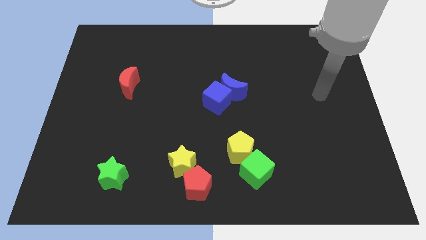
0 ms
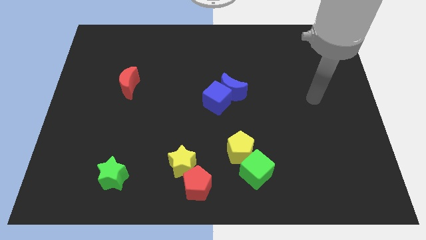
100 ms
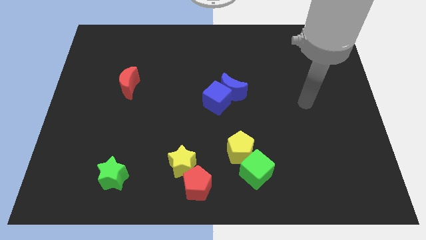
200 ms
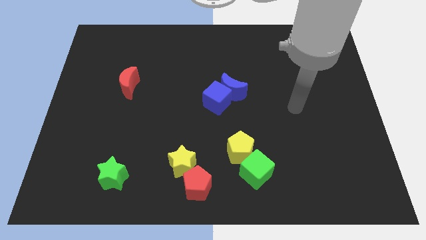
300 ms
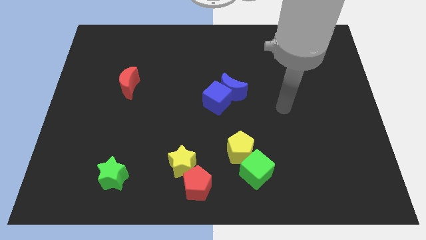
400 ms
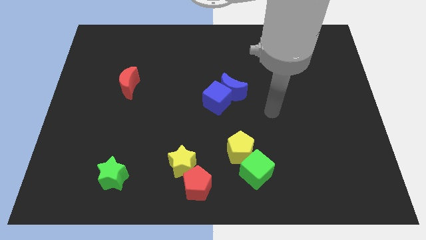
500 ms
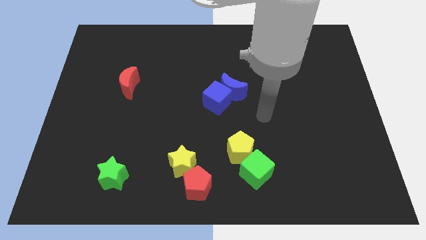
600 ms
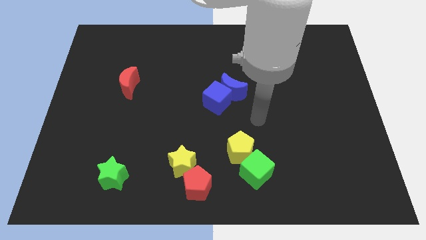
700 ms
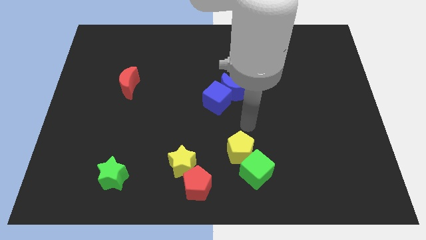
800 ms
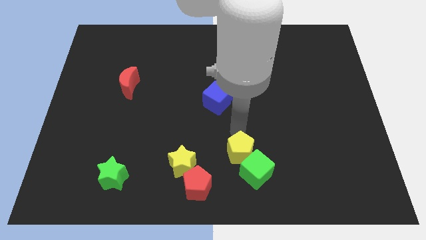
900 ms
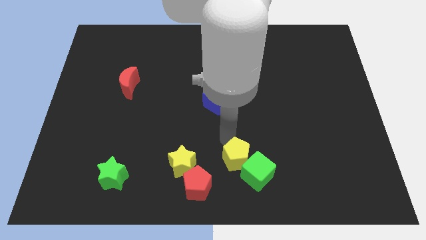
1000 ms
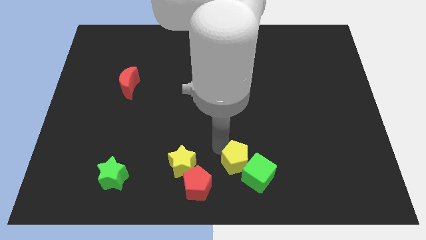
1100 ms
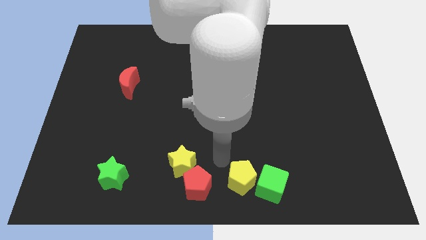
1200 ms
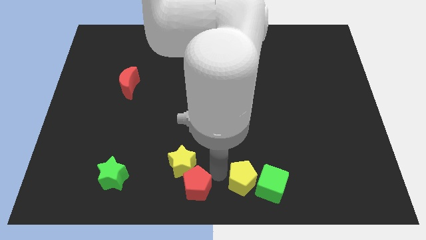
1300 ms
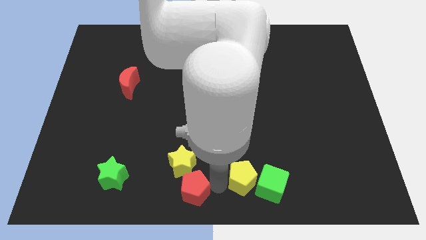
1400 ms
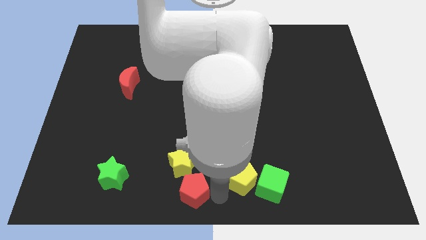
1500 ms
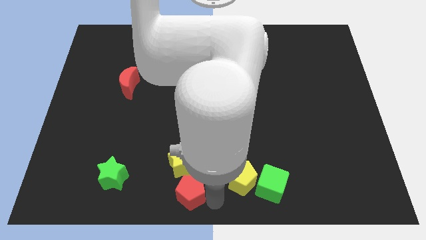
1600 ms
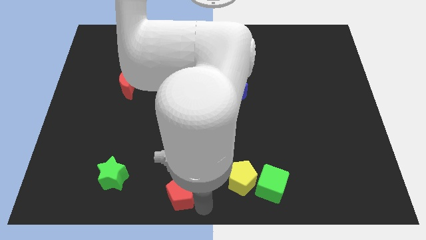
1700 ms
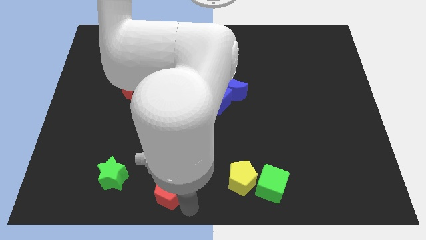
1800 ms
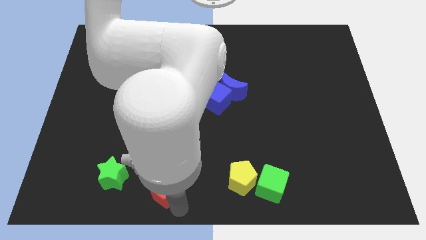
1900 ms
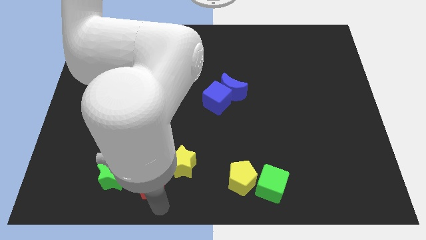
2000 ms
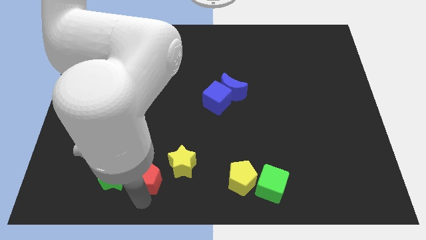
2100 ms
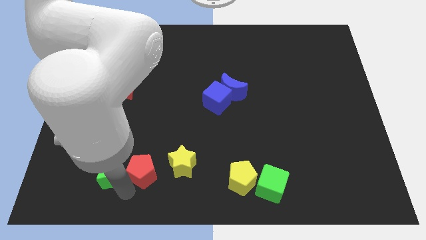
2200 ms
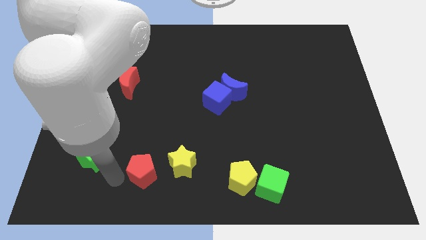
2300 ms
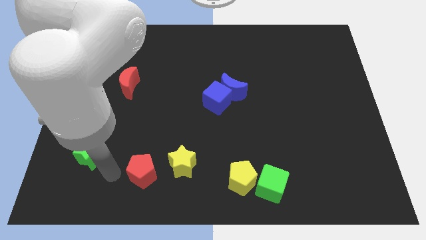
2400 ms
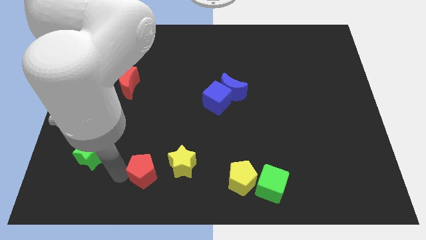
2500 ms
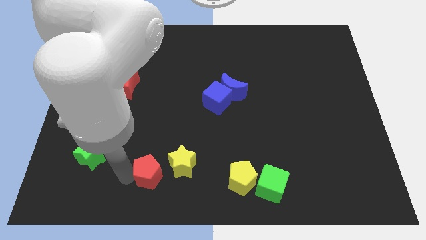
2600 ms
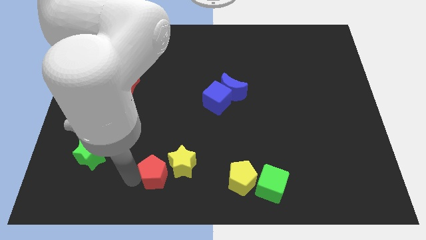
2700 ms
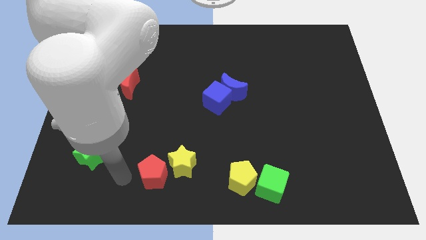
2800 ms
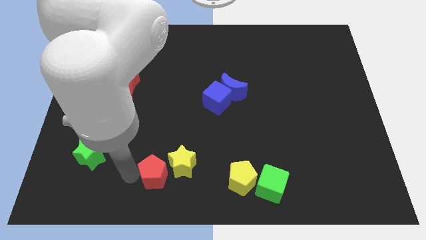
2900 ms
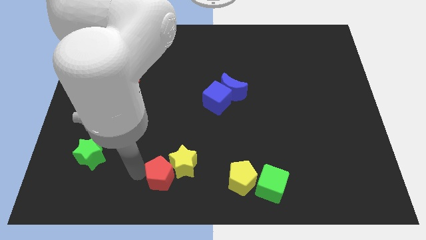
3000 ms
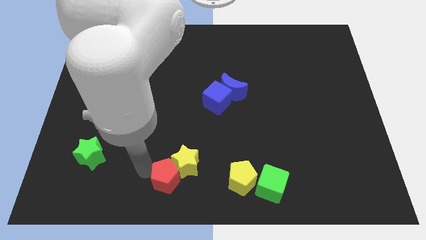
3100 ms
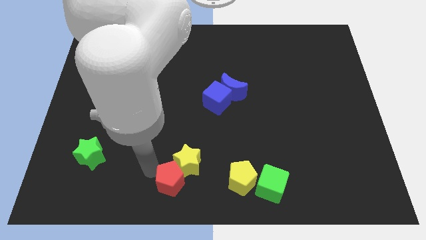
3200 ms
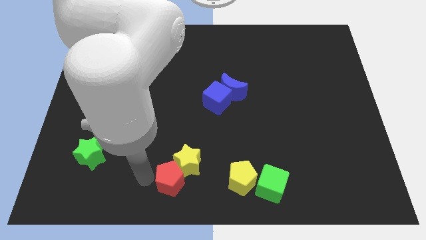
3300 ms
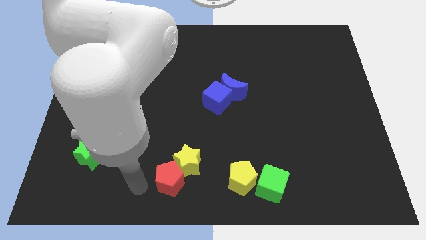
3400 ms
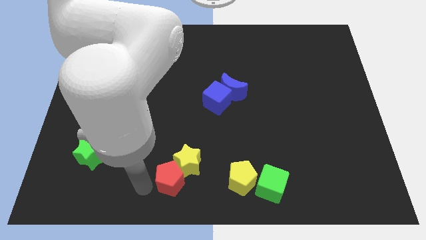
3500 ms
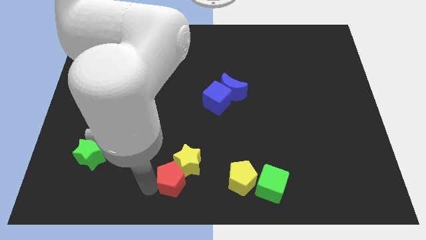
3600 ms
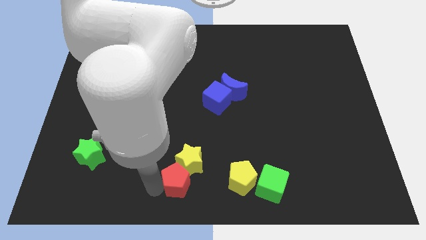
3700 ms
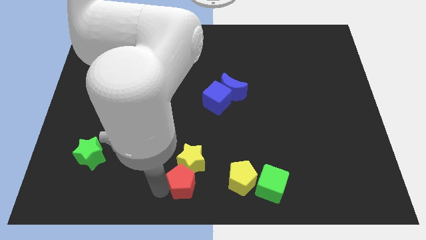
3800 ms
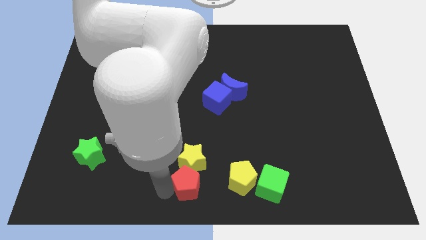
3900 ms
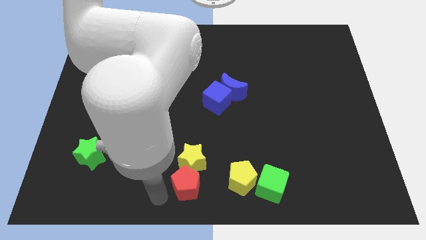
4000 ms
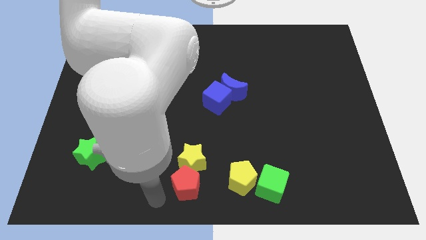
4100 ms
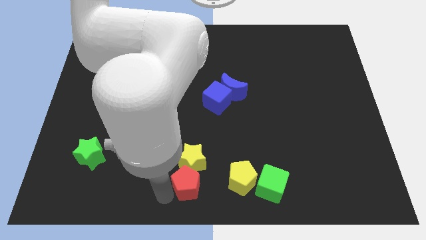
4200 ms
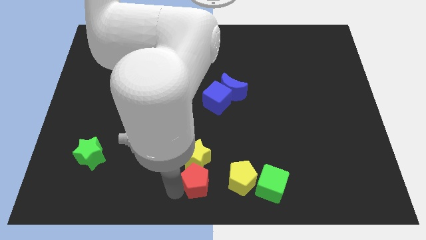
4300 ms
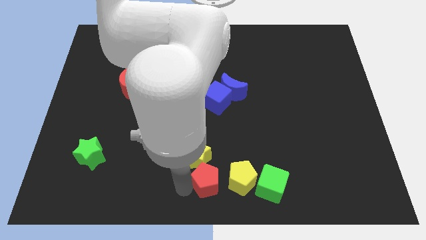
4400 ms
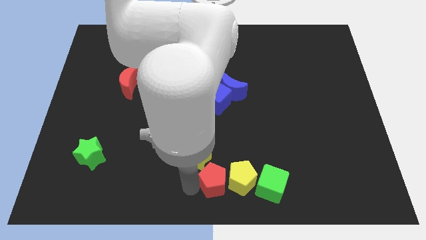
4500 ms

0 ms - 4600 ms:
move the red pentagon to the yellow pentagon

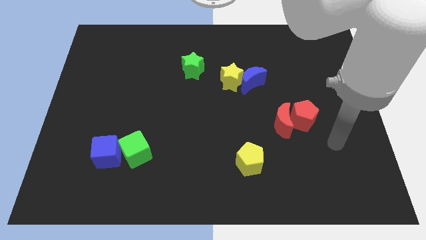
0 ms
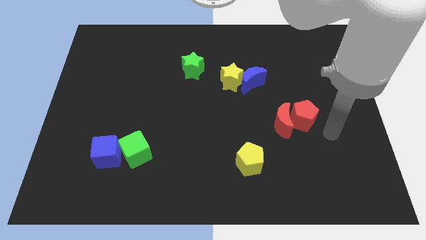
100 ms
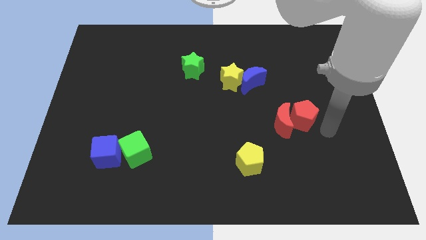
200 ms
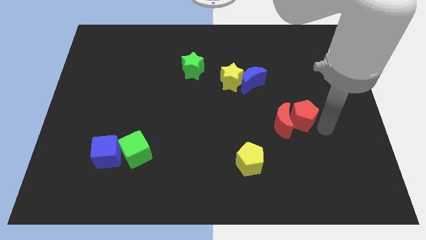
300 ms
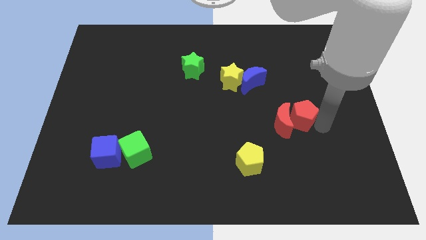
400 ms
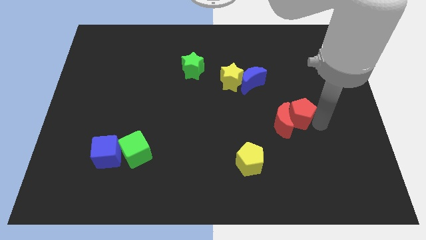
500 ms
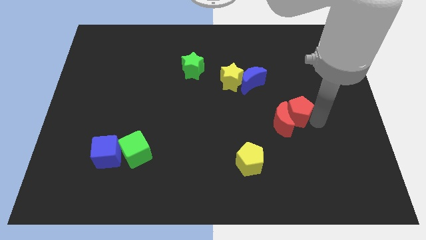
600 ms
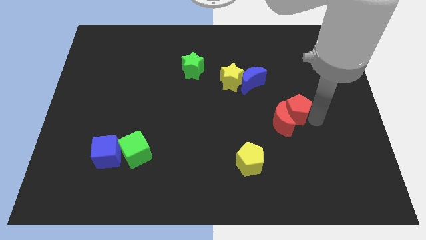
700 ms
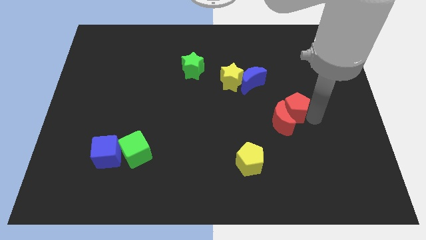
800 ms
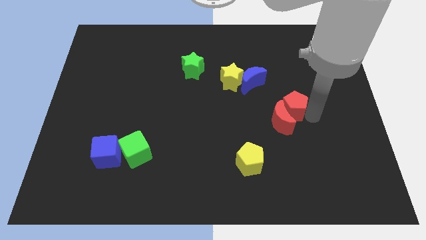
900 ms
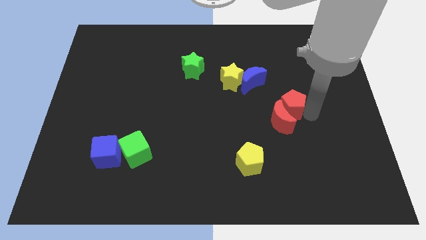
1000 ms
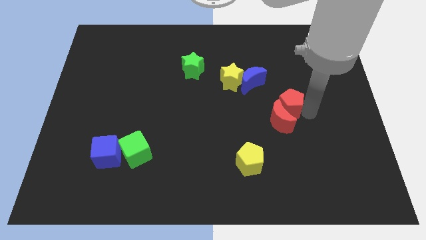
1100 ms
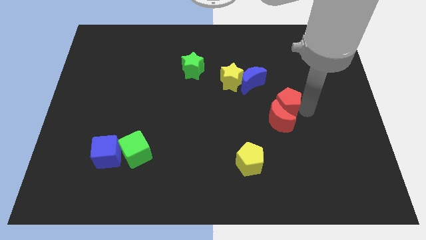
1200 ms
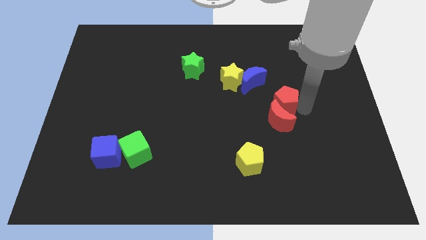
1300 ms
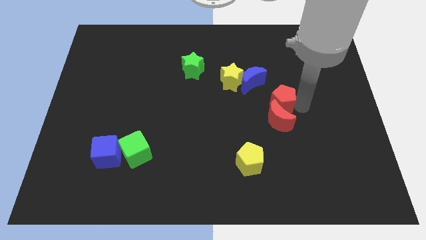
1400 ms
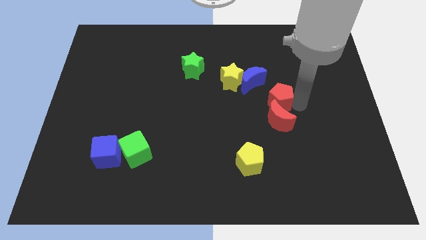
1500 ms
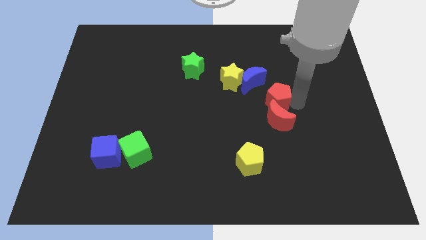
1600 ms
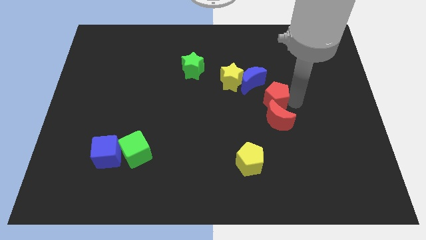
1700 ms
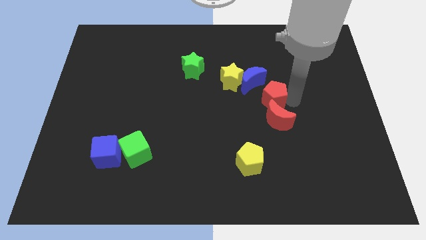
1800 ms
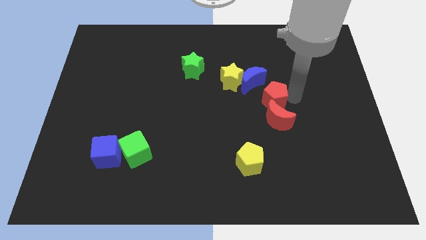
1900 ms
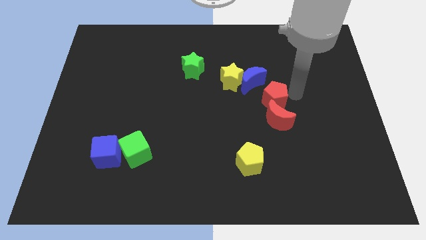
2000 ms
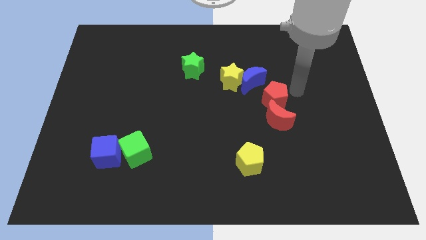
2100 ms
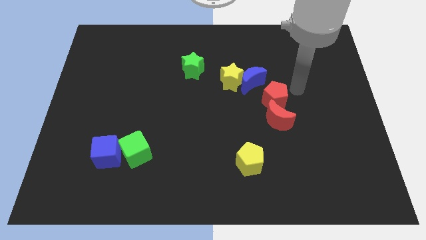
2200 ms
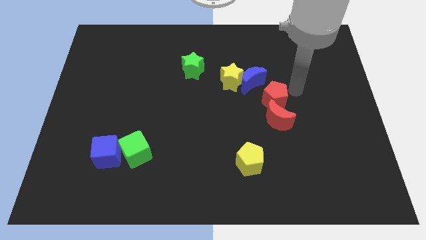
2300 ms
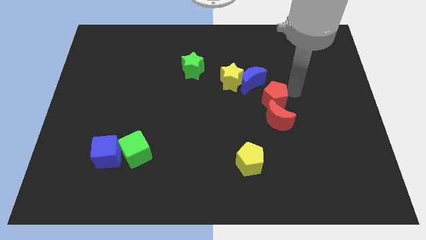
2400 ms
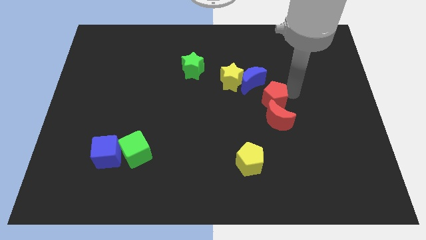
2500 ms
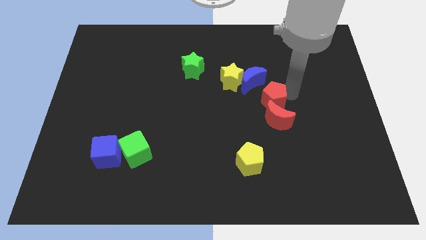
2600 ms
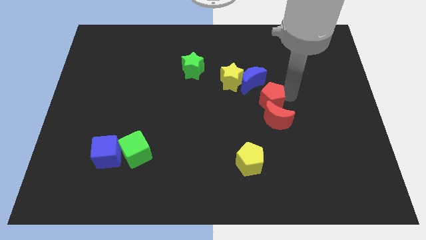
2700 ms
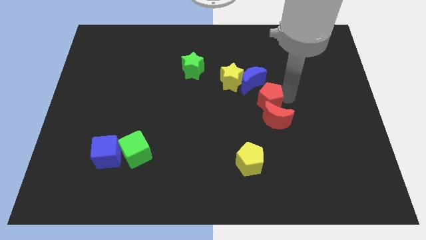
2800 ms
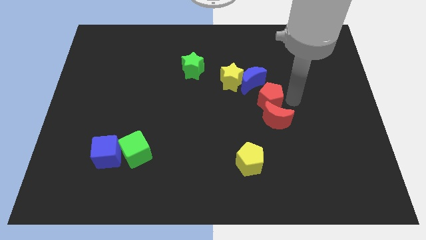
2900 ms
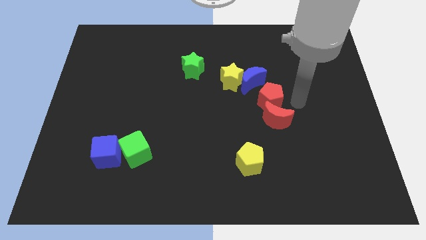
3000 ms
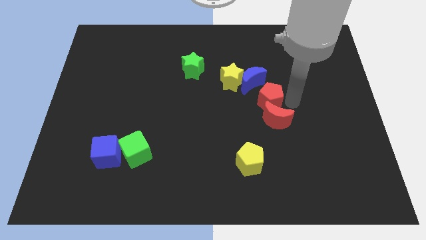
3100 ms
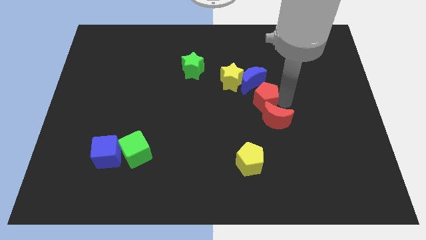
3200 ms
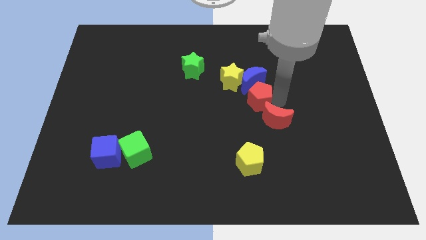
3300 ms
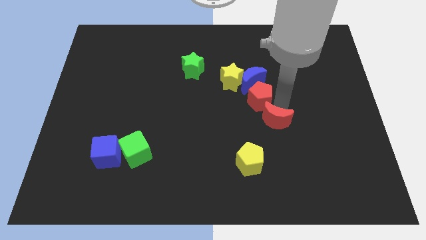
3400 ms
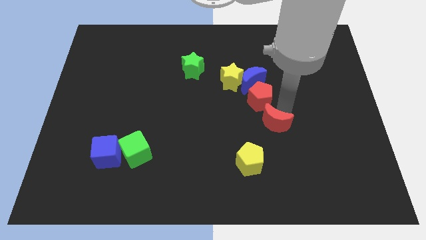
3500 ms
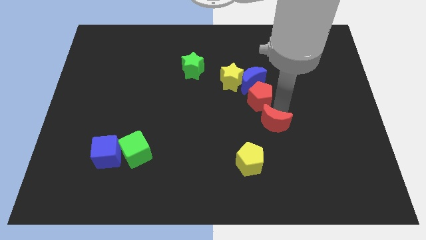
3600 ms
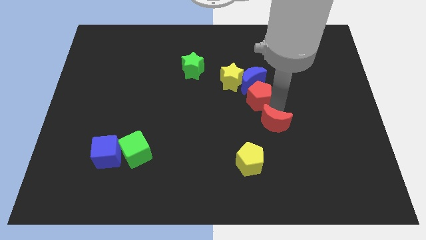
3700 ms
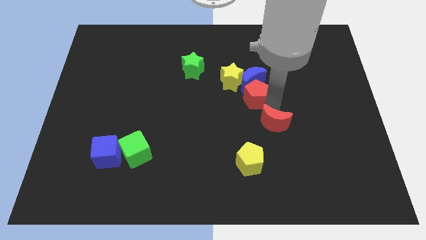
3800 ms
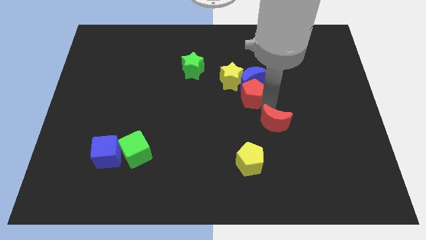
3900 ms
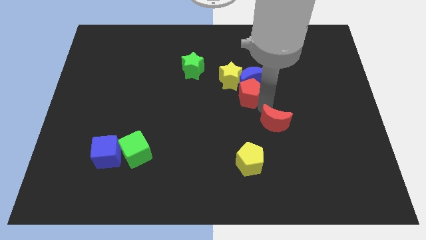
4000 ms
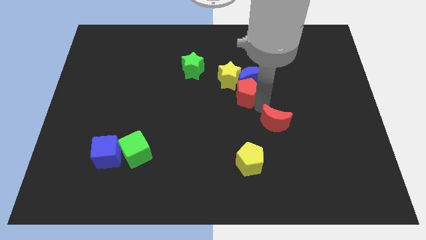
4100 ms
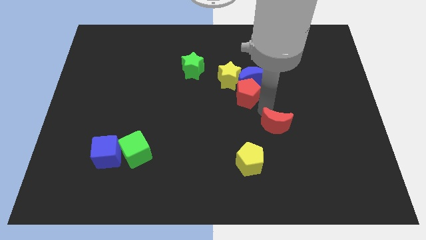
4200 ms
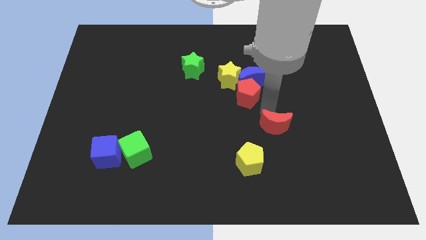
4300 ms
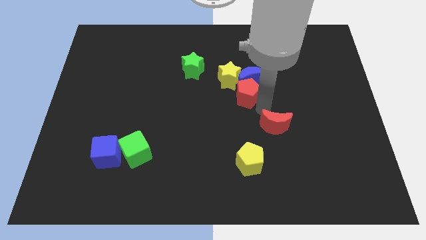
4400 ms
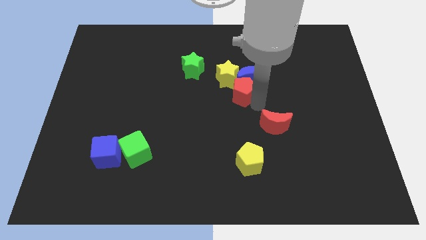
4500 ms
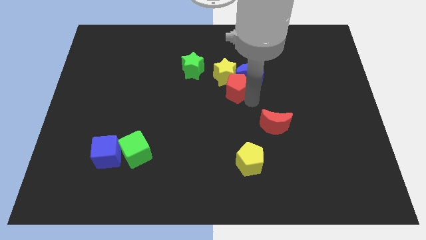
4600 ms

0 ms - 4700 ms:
slide the red pentagon next to the yellow star
